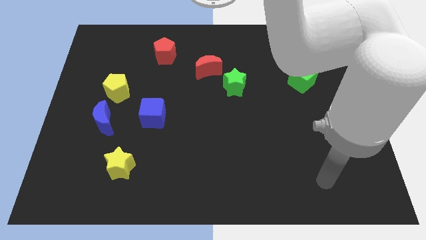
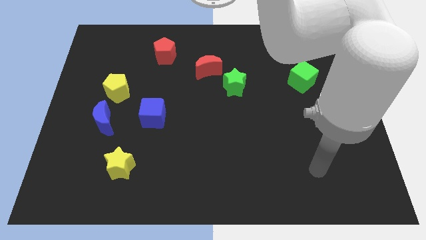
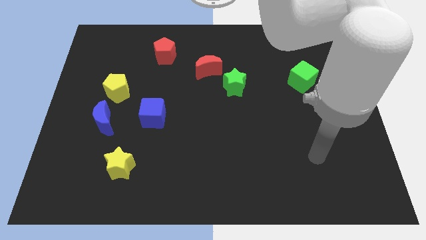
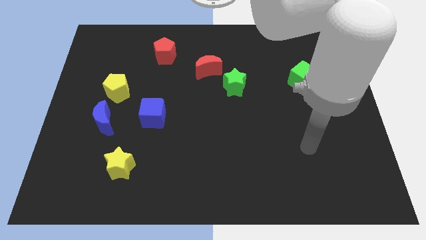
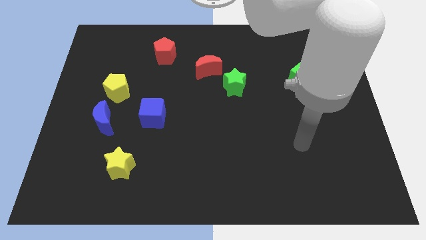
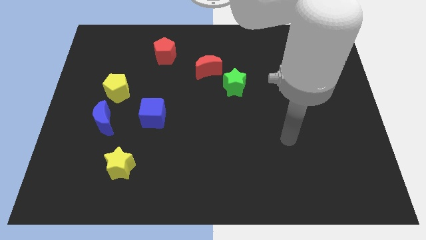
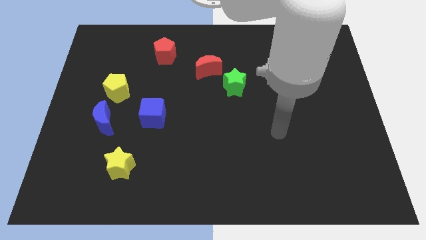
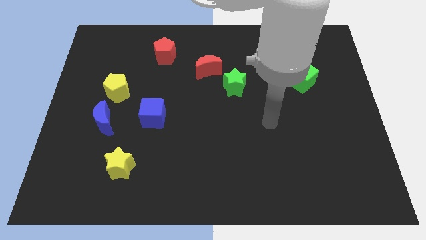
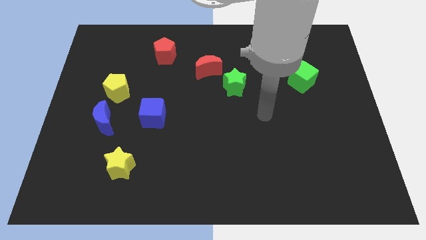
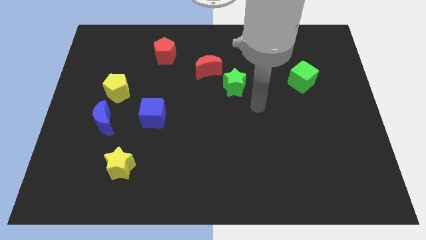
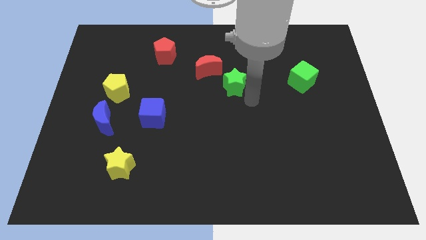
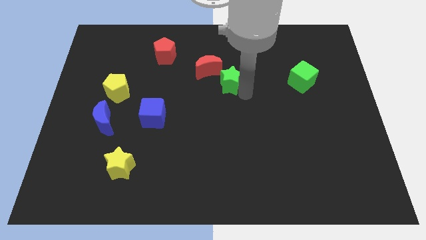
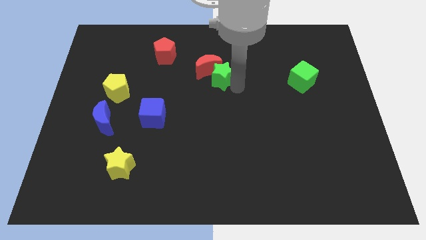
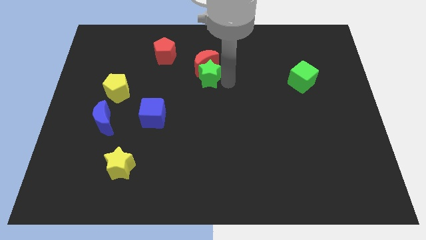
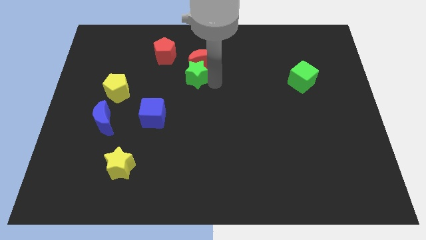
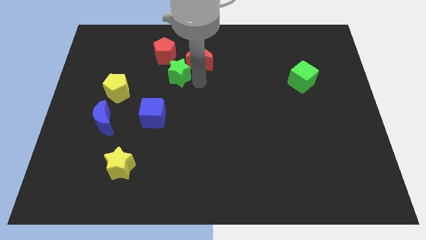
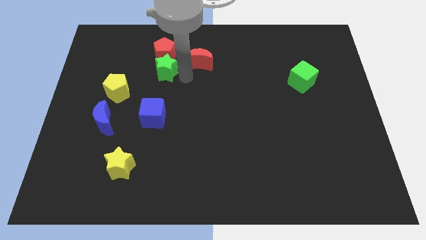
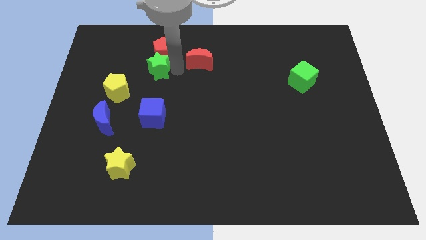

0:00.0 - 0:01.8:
separate the red moon from the green star

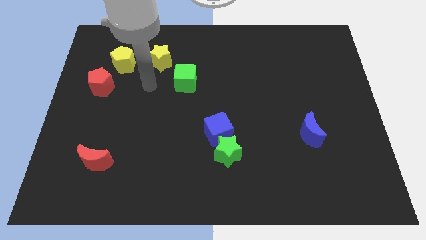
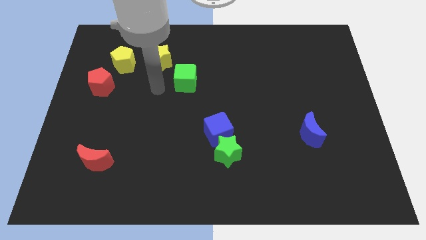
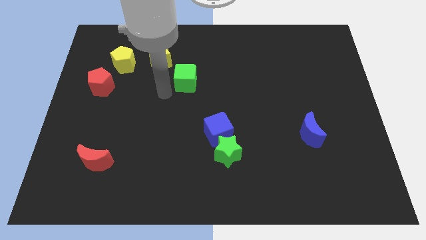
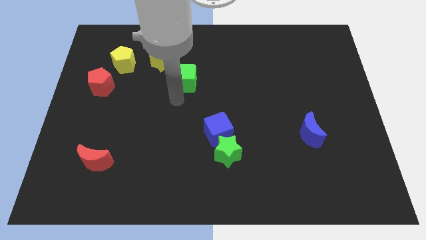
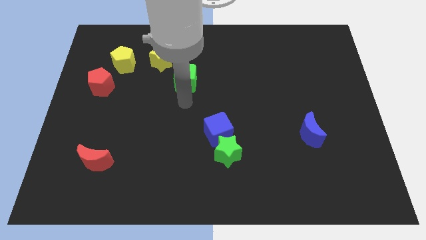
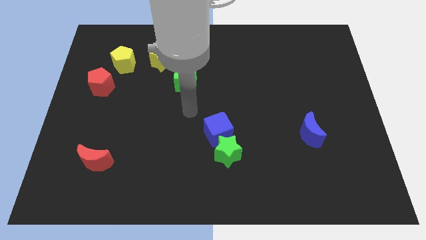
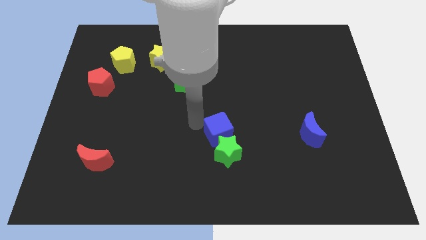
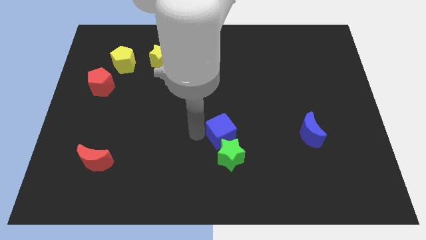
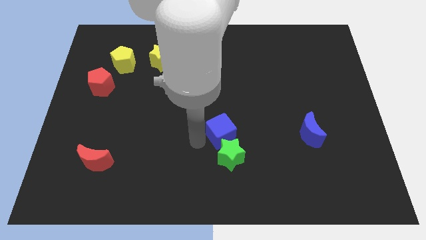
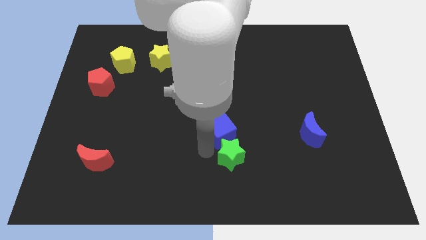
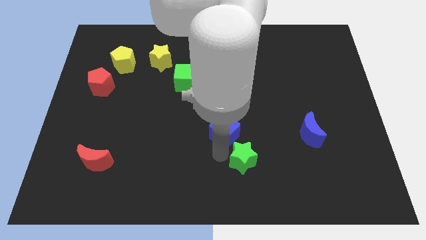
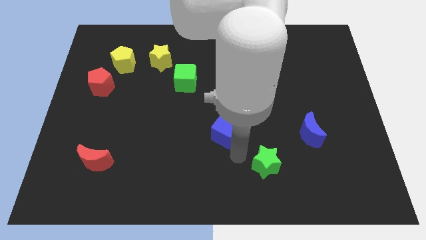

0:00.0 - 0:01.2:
separate the blue cube from the green star

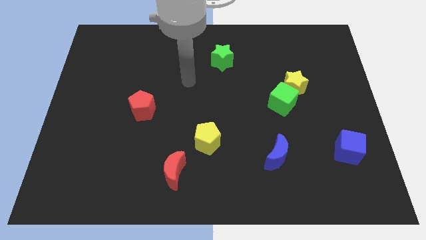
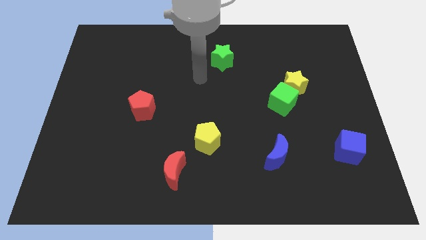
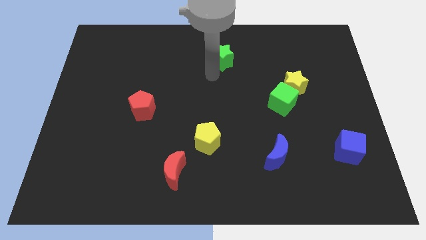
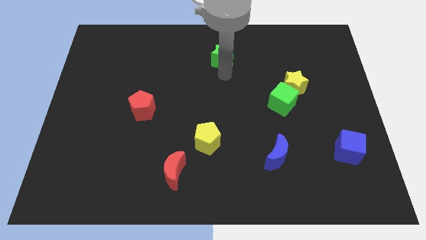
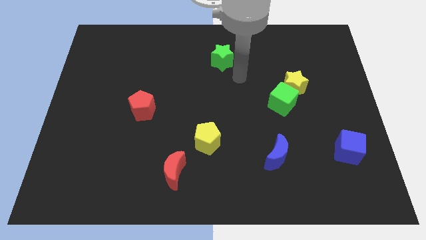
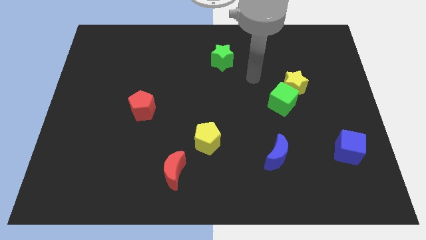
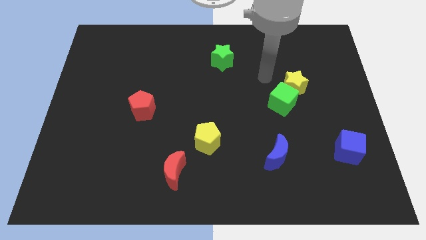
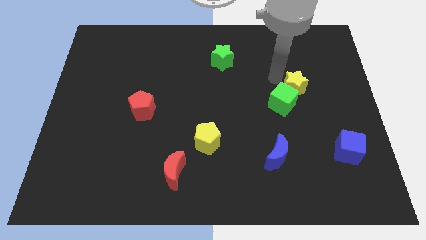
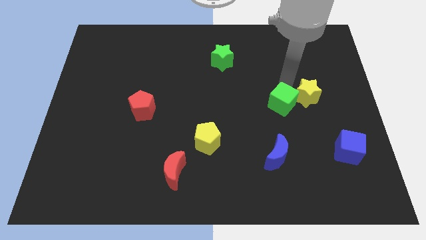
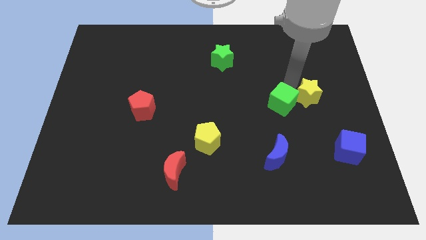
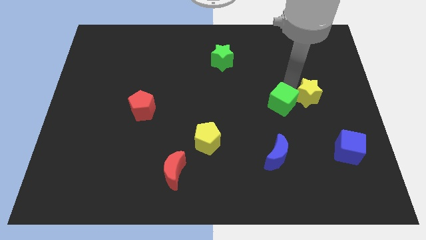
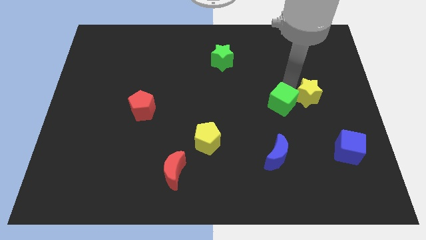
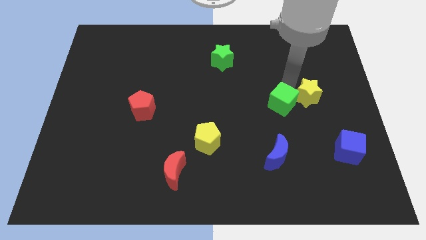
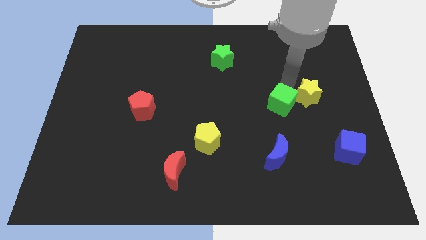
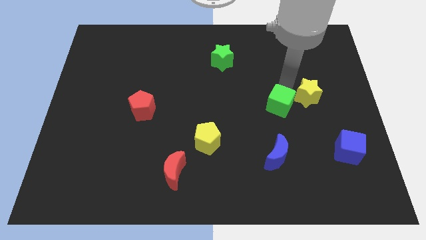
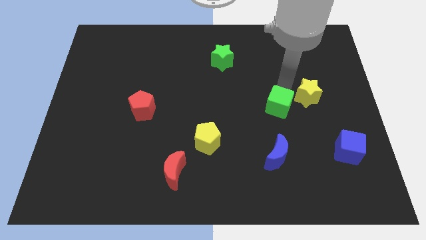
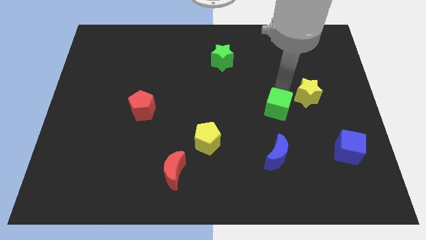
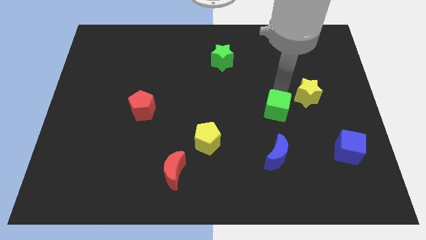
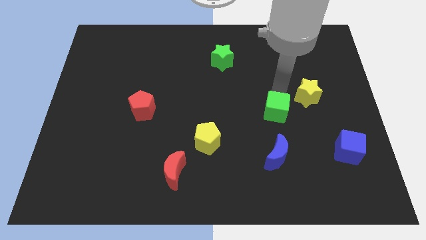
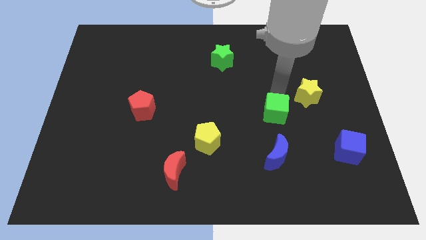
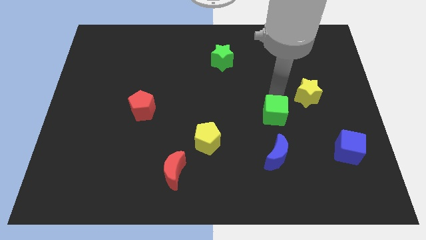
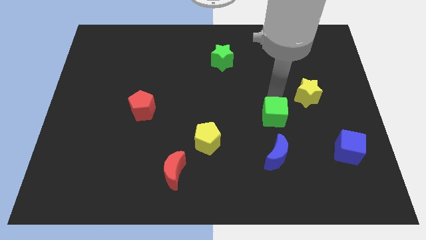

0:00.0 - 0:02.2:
separate the green cube from the yellow star

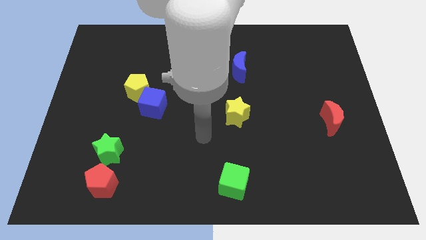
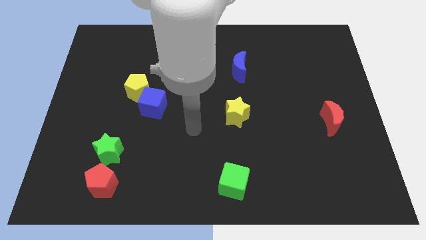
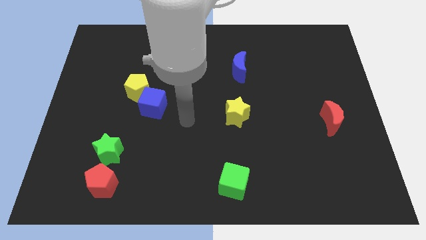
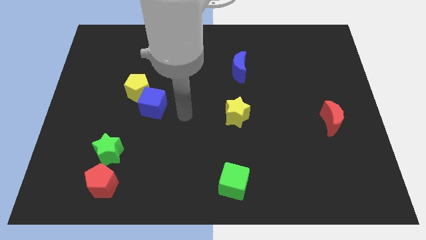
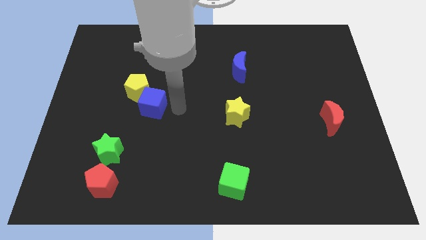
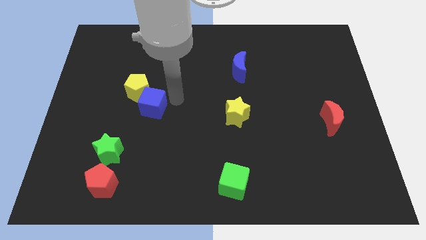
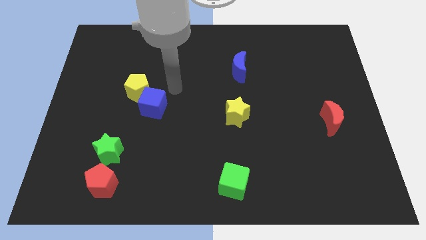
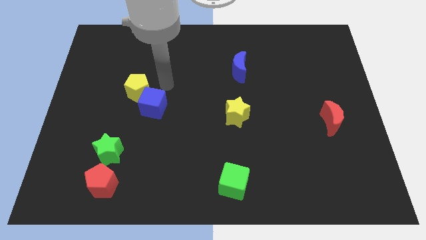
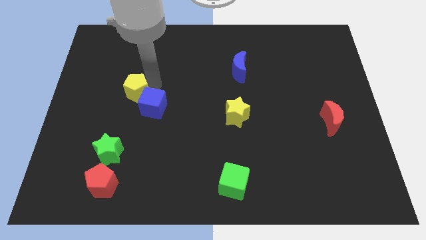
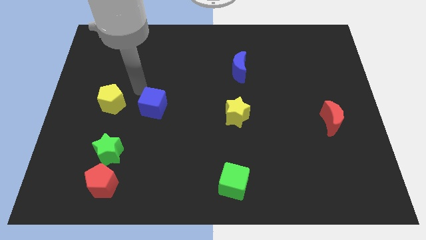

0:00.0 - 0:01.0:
separate the blue cube from the yellow pentagon

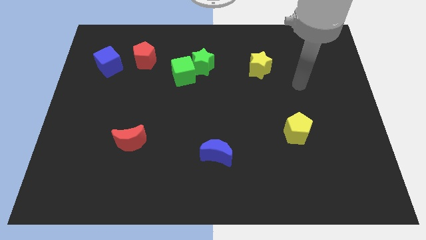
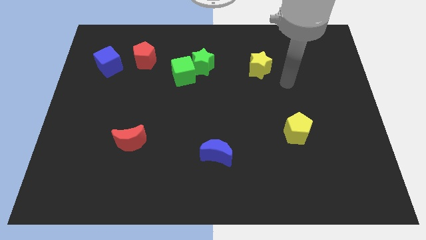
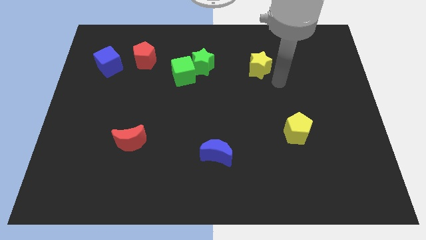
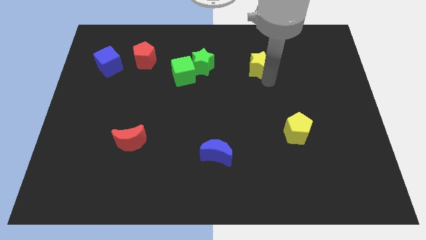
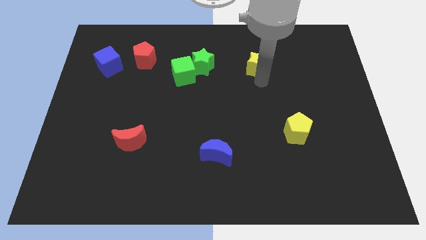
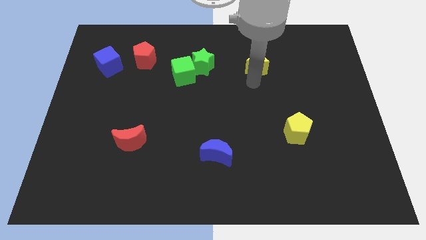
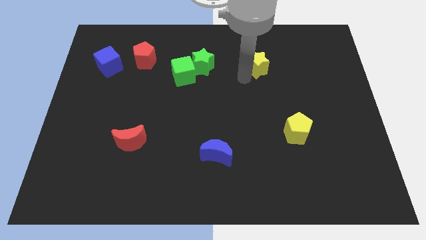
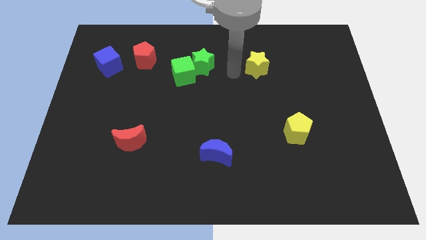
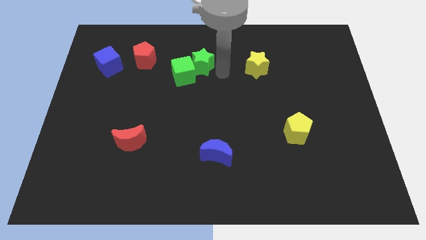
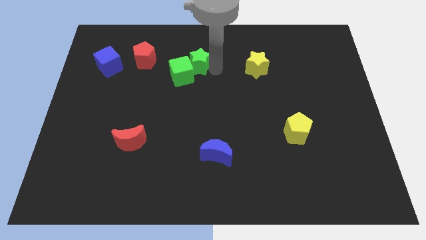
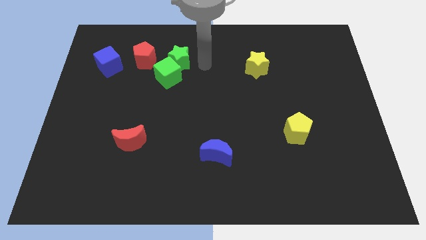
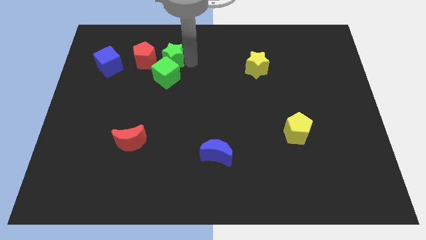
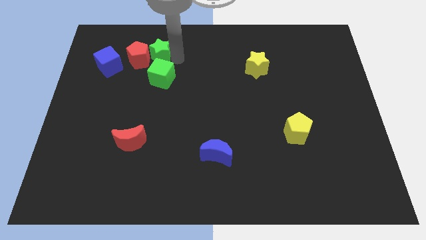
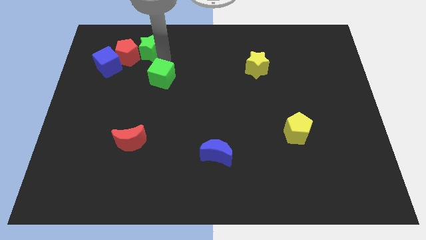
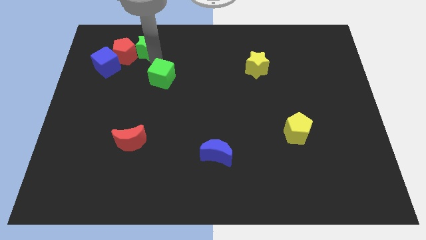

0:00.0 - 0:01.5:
move the green cube away from the green star

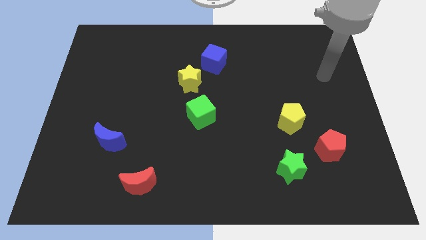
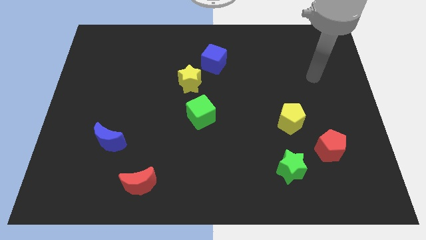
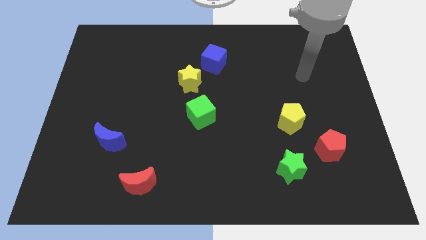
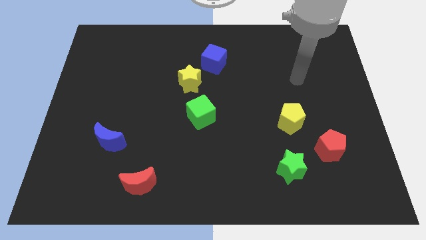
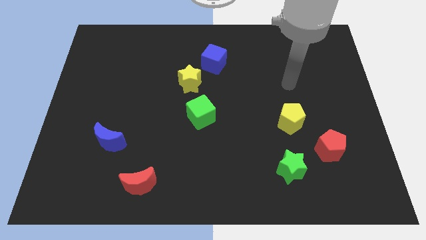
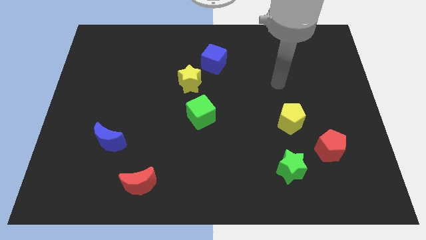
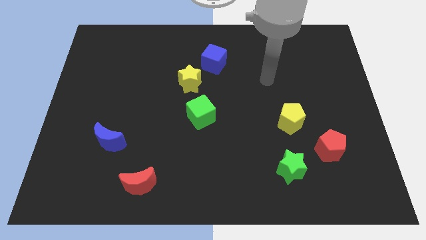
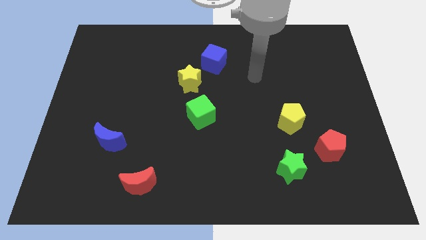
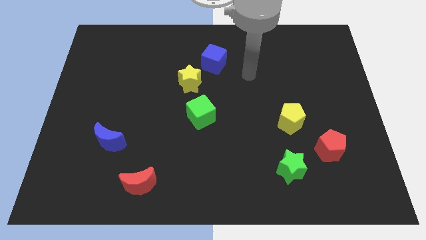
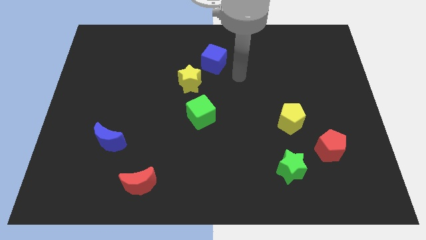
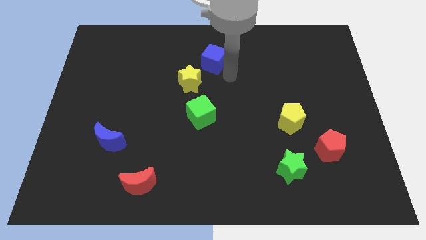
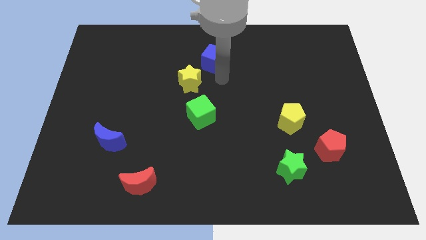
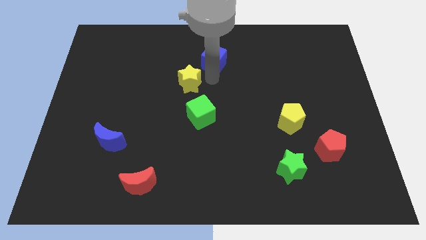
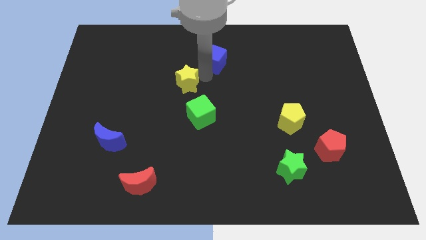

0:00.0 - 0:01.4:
pull the blue cube apart from the yellow star
